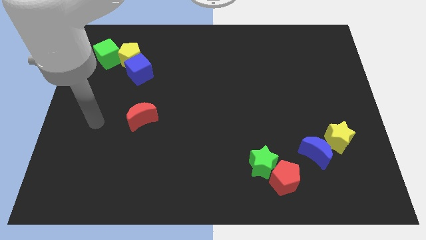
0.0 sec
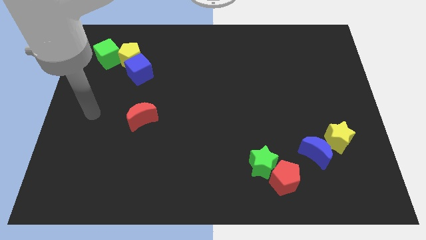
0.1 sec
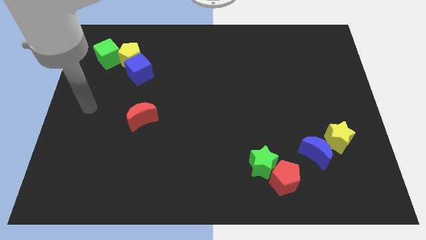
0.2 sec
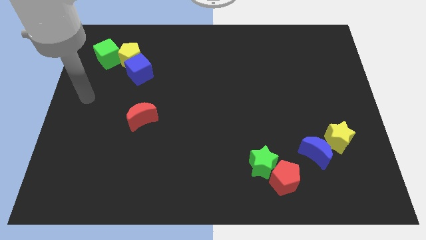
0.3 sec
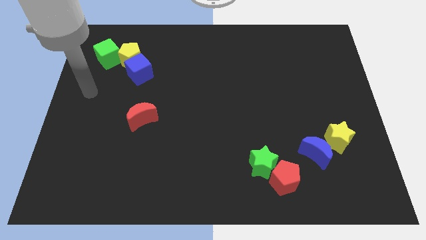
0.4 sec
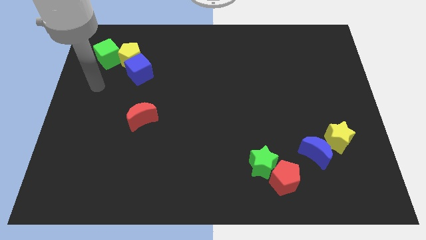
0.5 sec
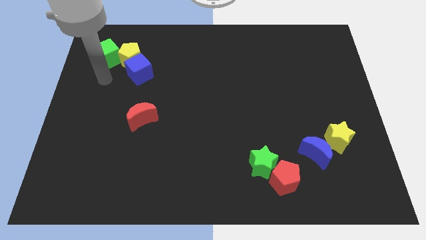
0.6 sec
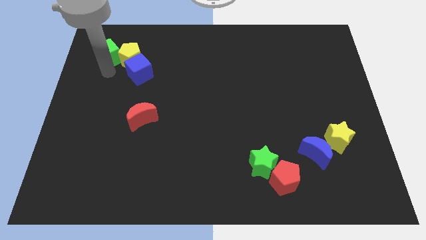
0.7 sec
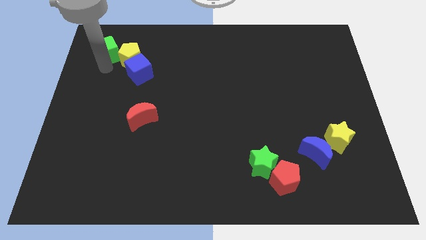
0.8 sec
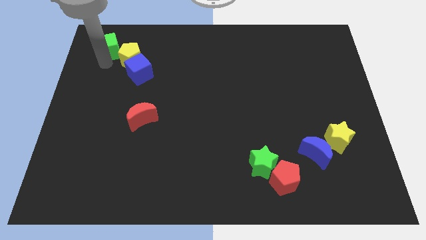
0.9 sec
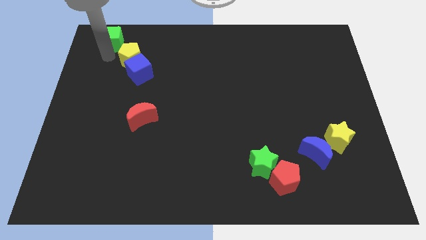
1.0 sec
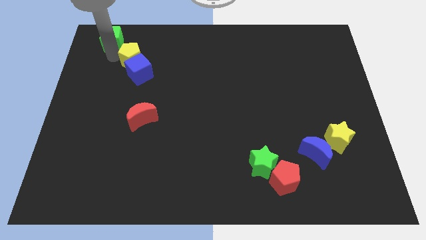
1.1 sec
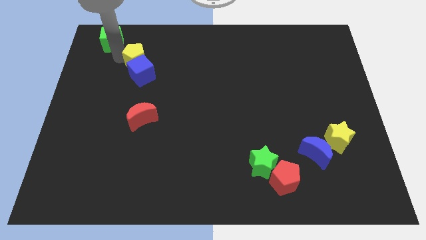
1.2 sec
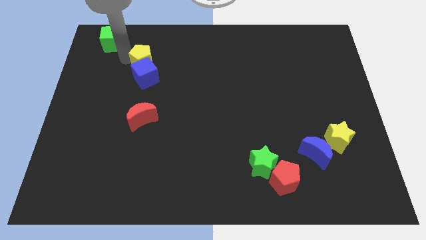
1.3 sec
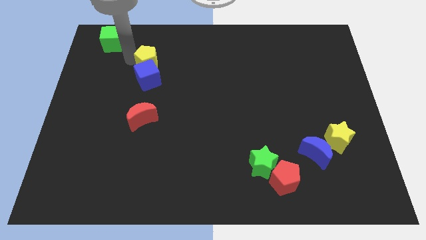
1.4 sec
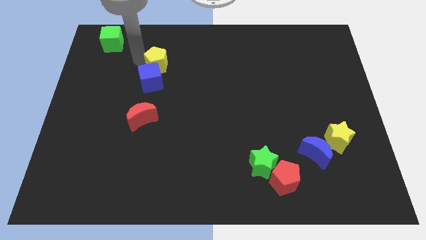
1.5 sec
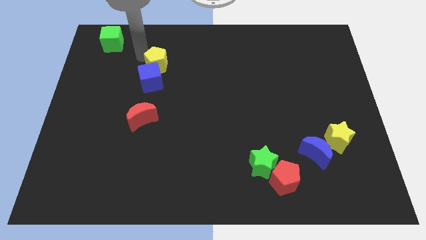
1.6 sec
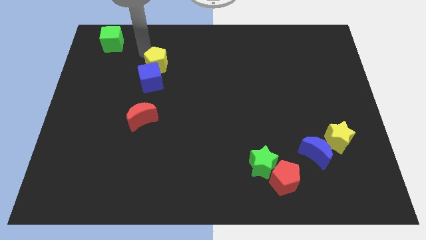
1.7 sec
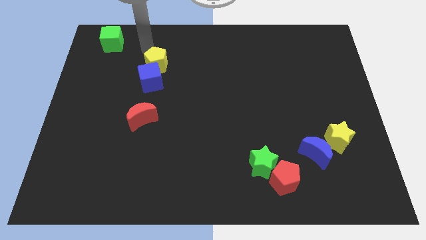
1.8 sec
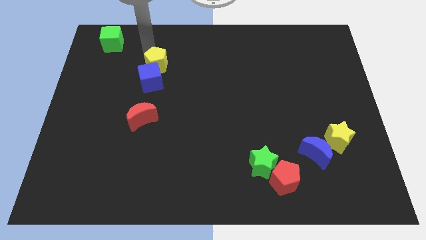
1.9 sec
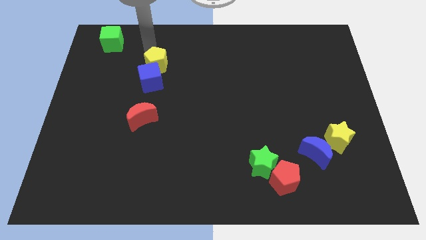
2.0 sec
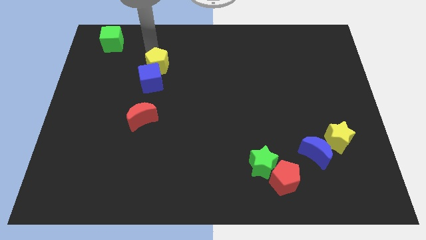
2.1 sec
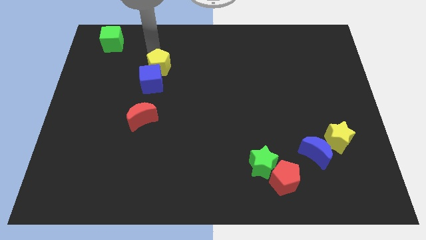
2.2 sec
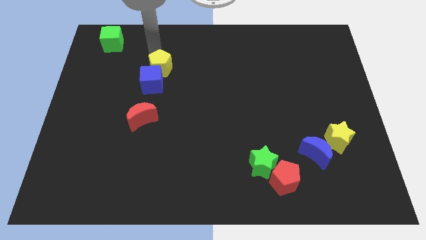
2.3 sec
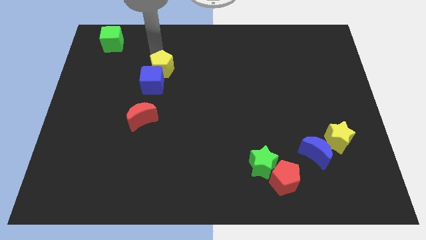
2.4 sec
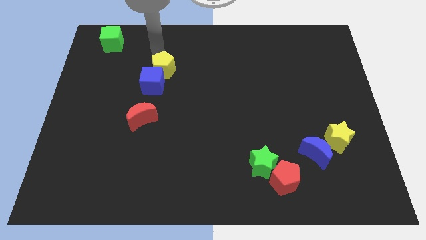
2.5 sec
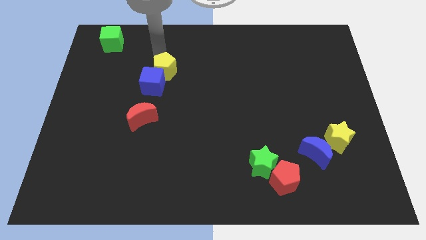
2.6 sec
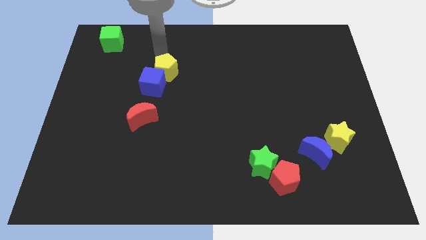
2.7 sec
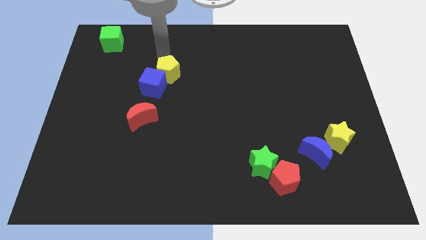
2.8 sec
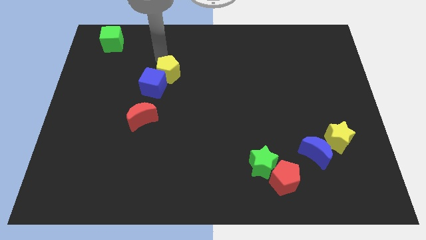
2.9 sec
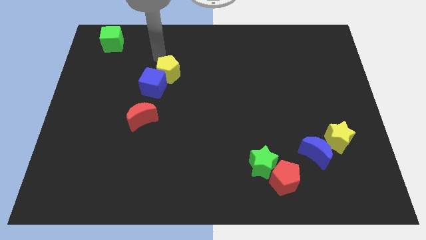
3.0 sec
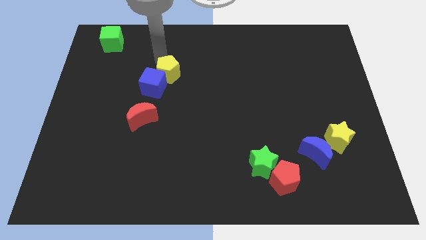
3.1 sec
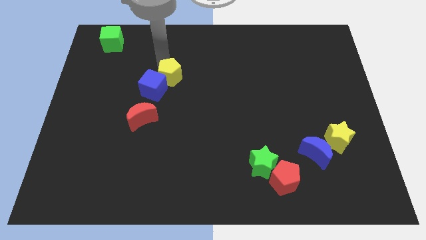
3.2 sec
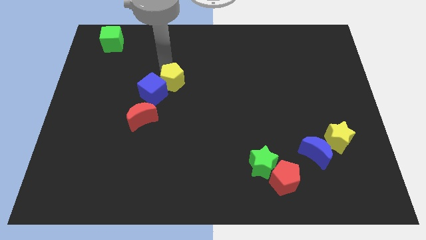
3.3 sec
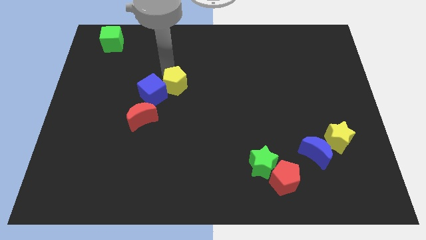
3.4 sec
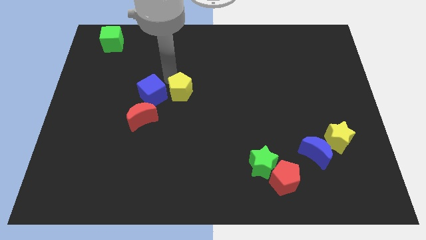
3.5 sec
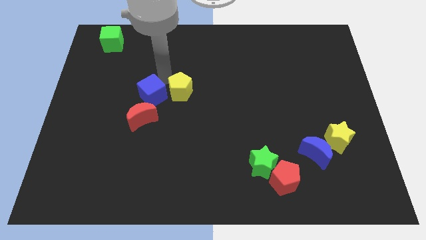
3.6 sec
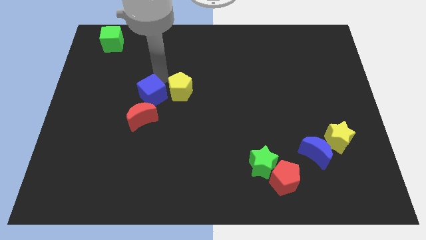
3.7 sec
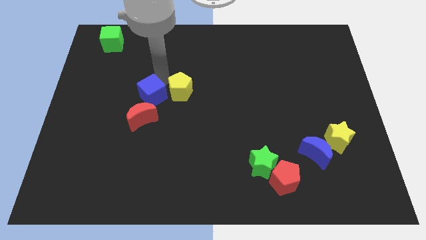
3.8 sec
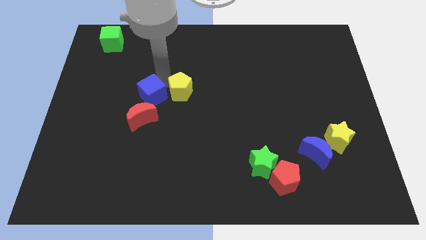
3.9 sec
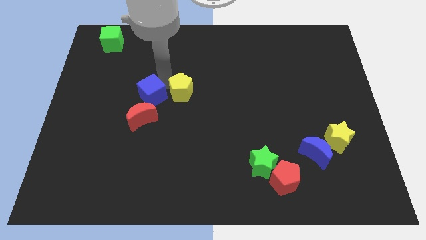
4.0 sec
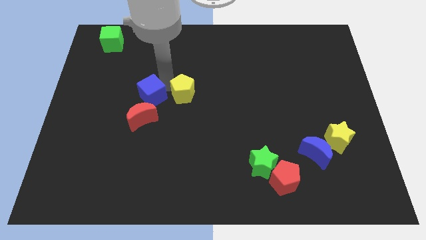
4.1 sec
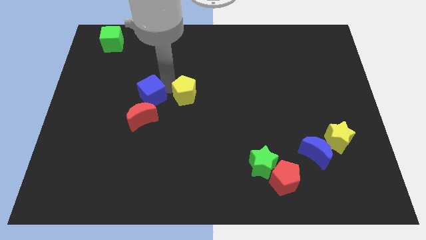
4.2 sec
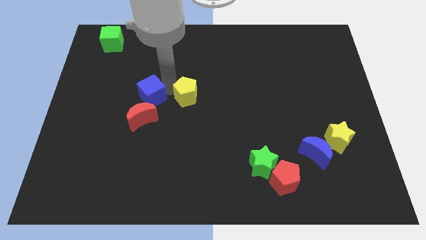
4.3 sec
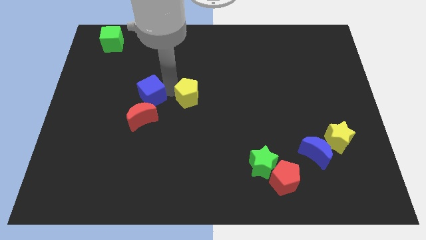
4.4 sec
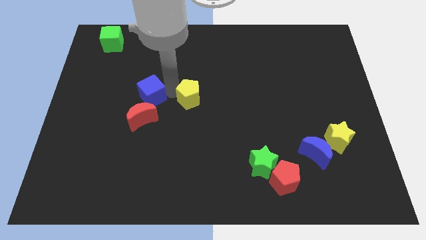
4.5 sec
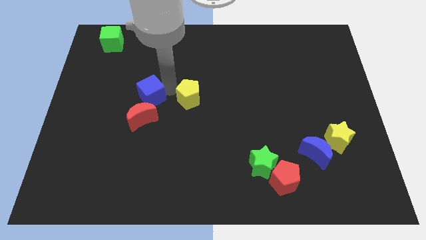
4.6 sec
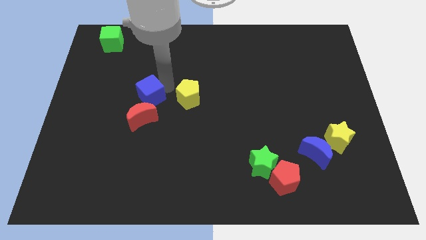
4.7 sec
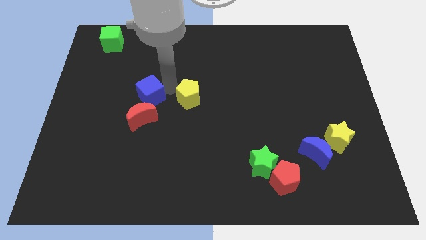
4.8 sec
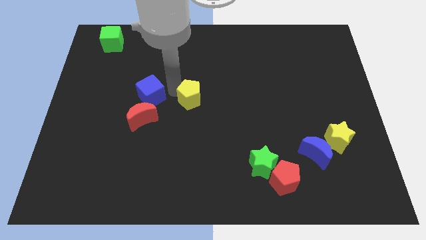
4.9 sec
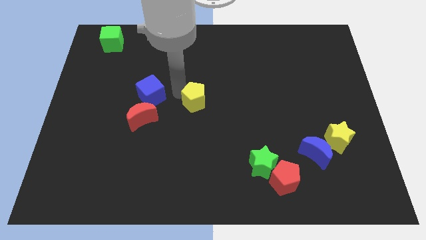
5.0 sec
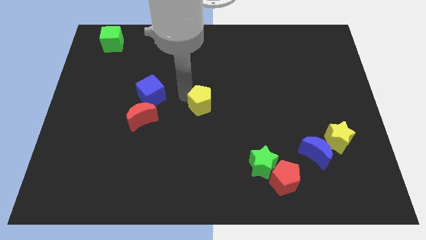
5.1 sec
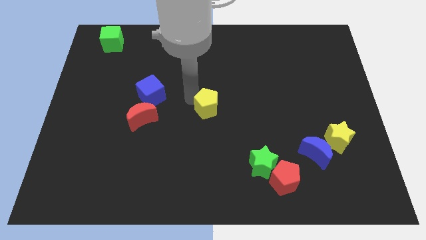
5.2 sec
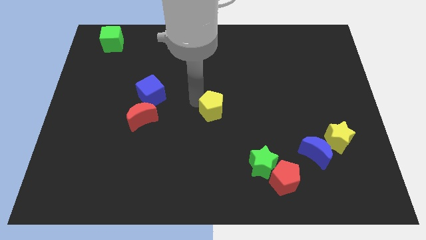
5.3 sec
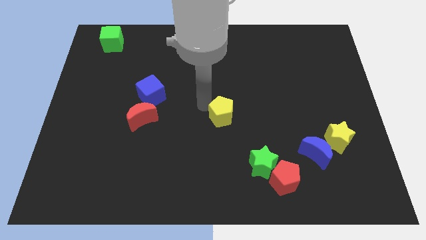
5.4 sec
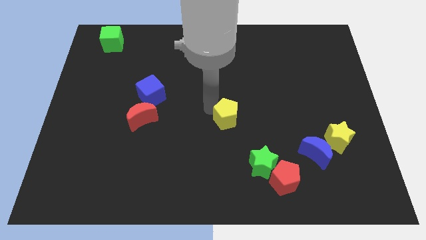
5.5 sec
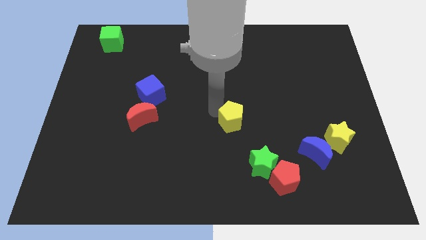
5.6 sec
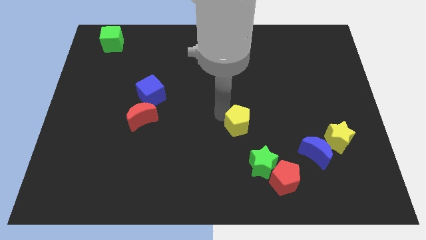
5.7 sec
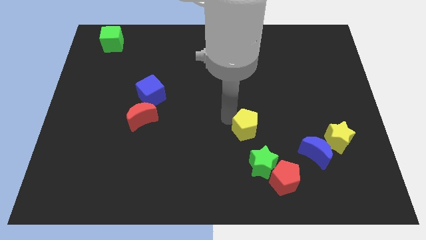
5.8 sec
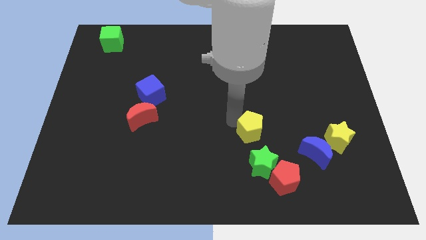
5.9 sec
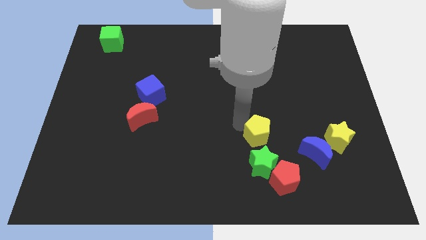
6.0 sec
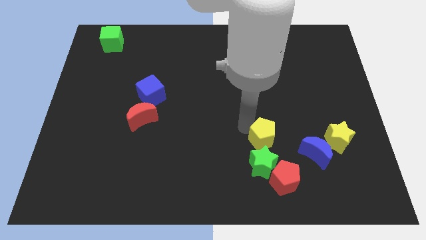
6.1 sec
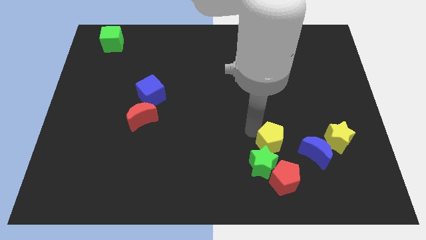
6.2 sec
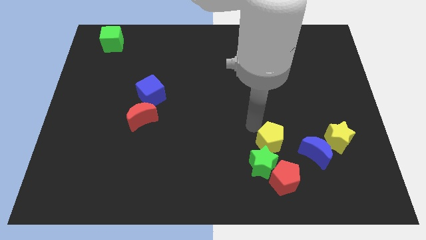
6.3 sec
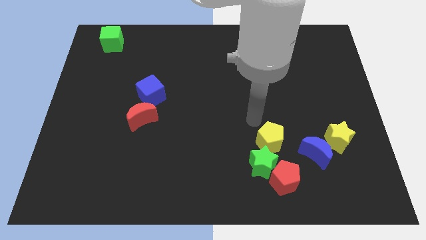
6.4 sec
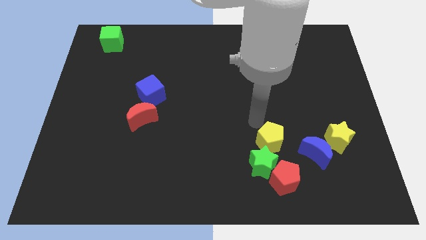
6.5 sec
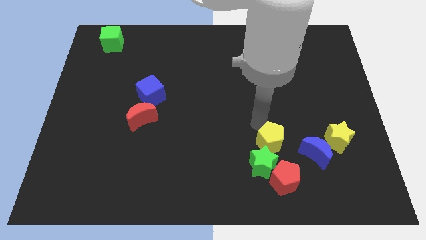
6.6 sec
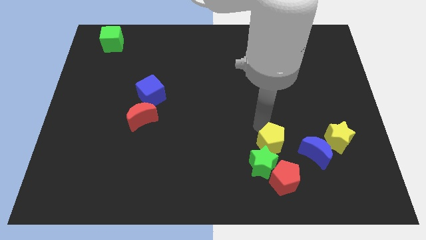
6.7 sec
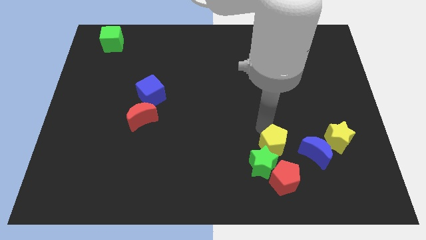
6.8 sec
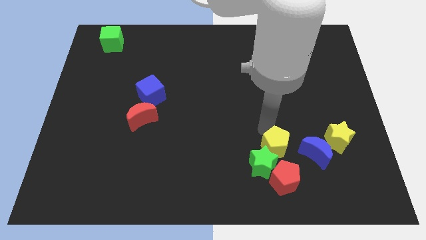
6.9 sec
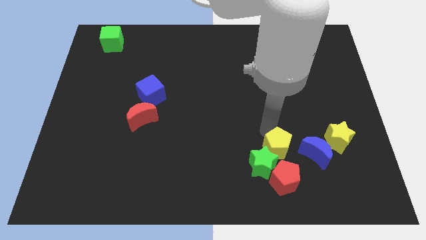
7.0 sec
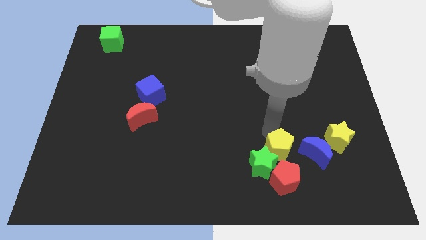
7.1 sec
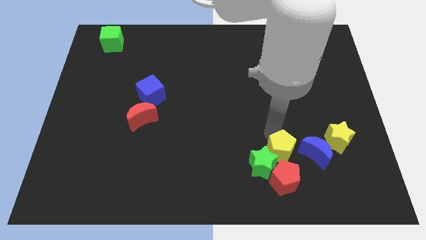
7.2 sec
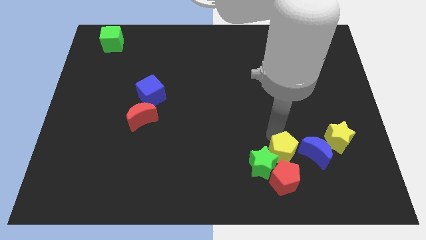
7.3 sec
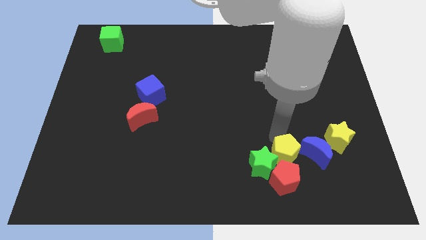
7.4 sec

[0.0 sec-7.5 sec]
push the yellow pentagon next to the red pentagon

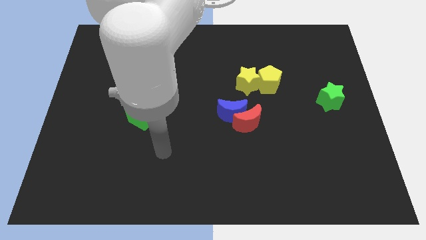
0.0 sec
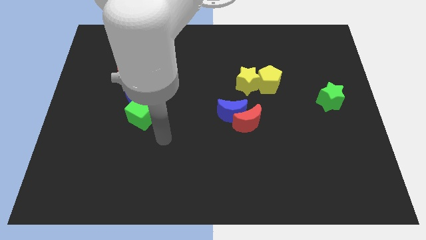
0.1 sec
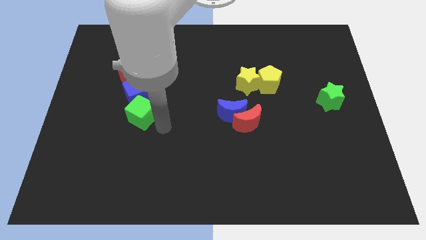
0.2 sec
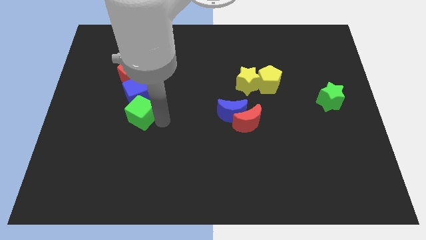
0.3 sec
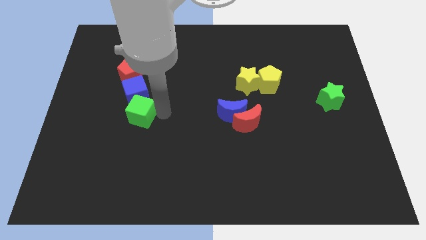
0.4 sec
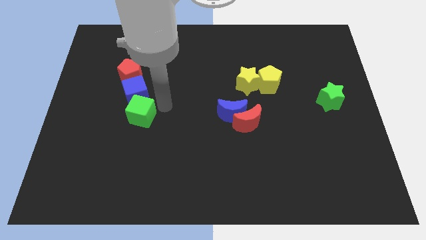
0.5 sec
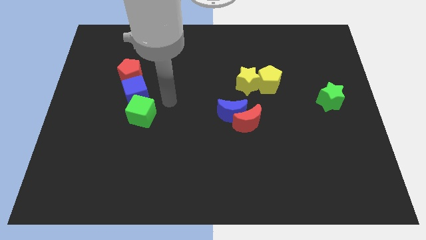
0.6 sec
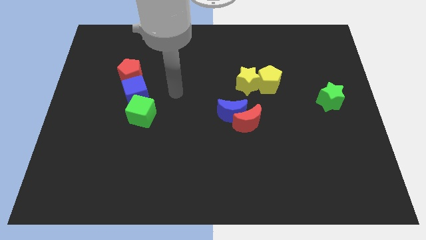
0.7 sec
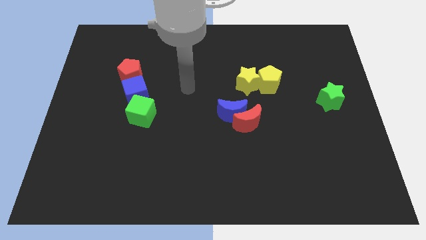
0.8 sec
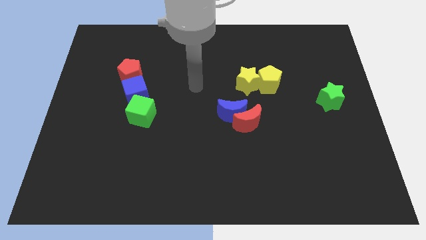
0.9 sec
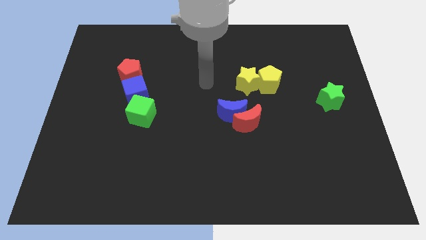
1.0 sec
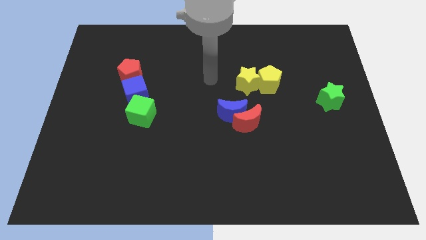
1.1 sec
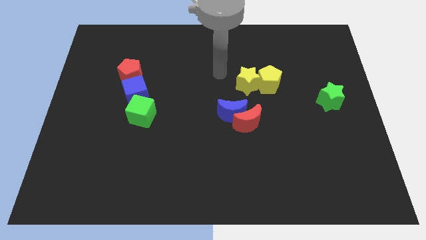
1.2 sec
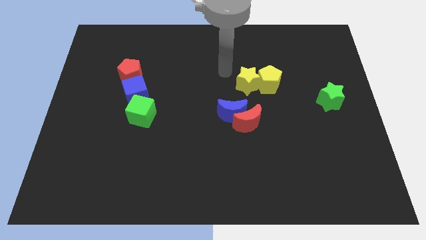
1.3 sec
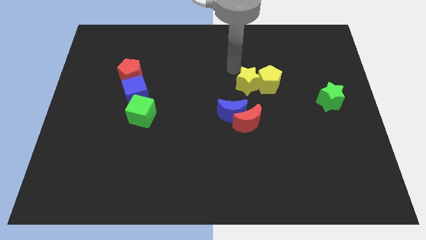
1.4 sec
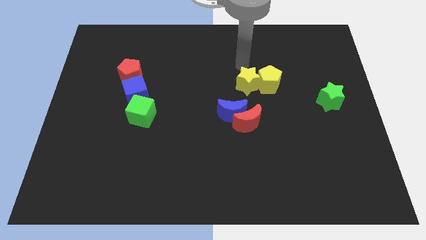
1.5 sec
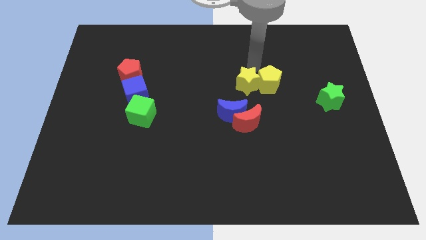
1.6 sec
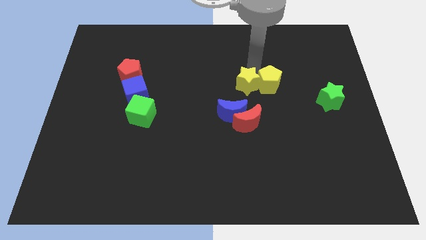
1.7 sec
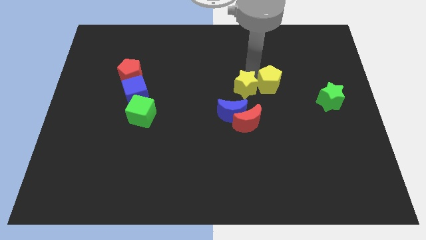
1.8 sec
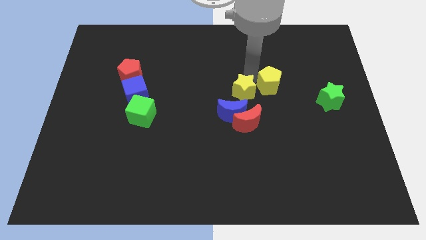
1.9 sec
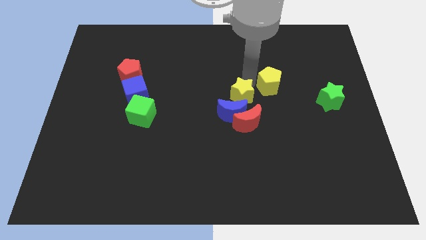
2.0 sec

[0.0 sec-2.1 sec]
move the yellow star next to the blue moon
